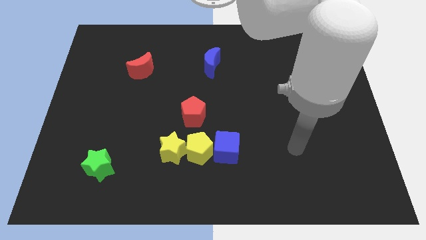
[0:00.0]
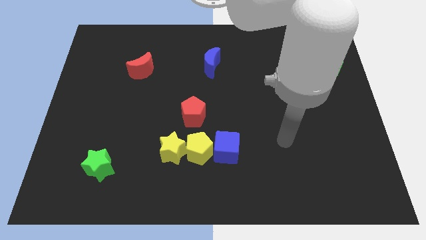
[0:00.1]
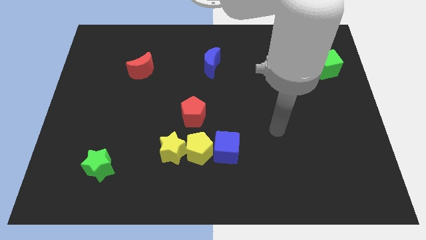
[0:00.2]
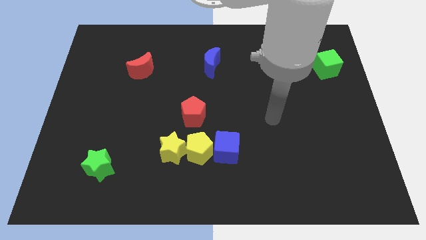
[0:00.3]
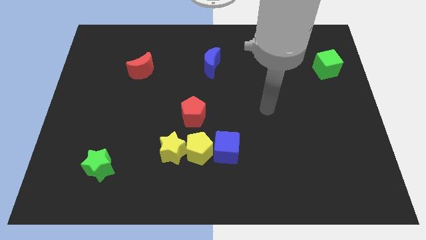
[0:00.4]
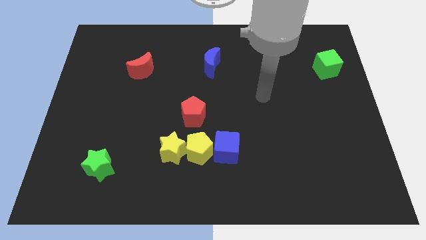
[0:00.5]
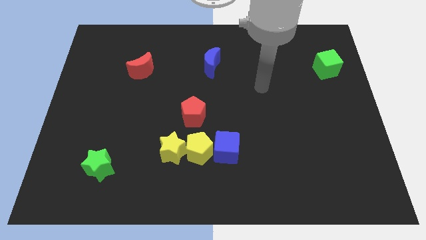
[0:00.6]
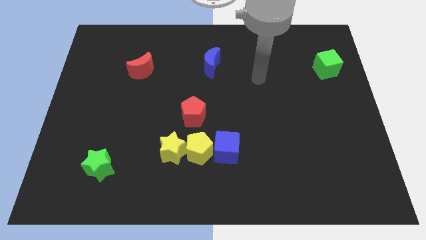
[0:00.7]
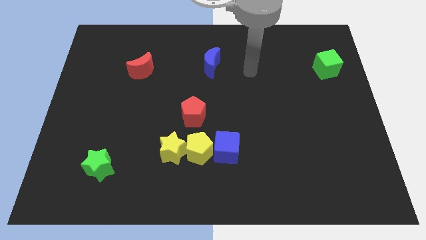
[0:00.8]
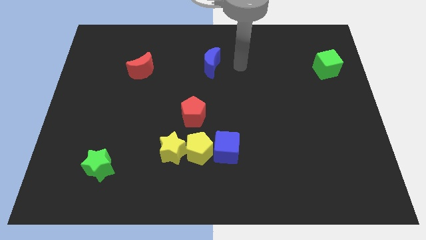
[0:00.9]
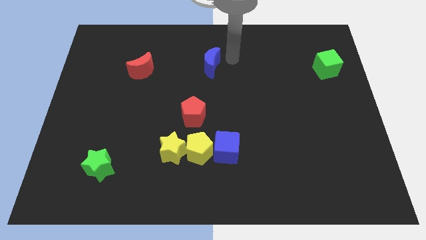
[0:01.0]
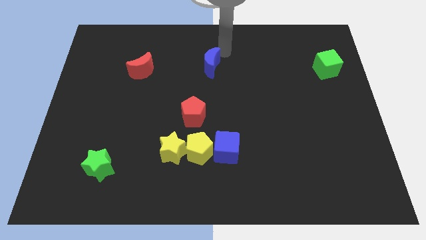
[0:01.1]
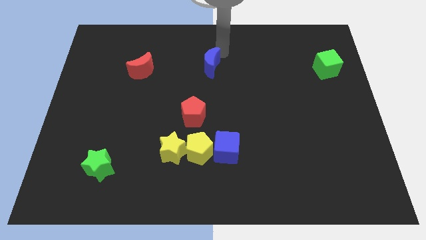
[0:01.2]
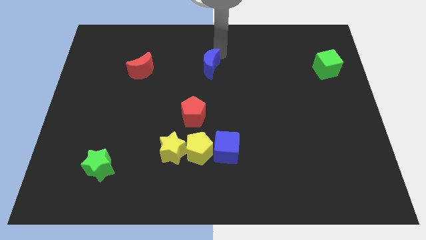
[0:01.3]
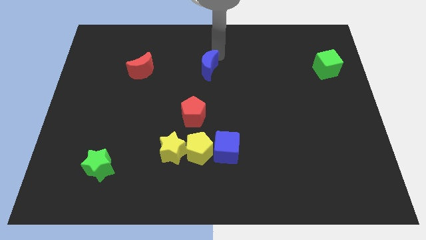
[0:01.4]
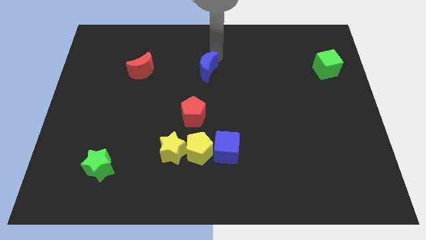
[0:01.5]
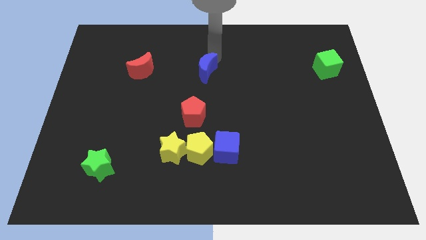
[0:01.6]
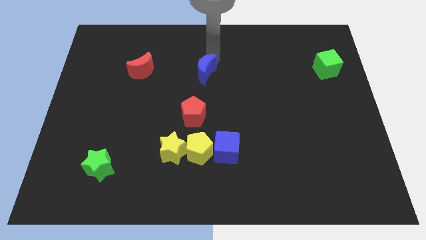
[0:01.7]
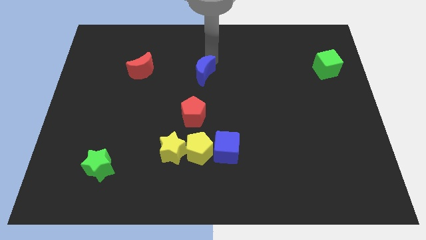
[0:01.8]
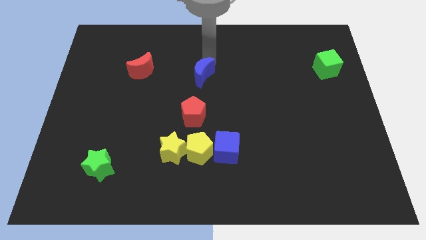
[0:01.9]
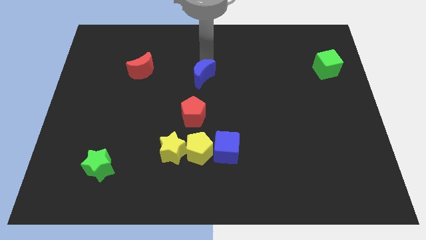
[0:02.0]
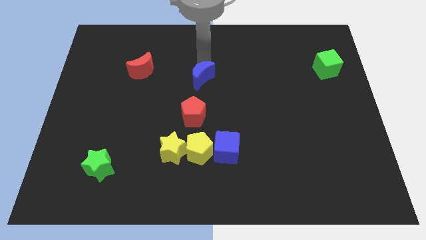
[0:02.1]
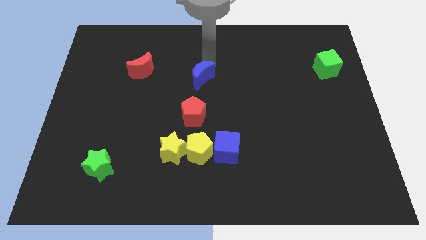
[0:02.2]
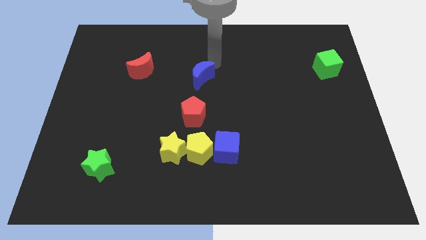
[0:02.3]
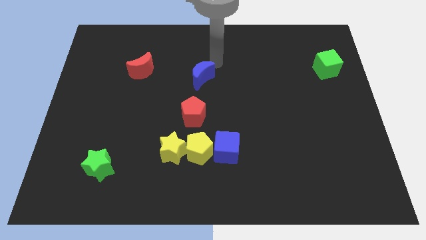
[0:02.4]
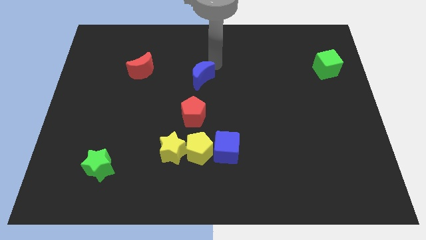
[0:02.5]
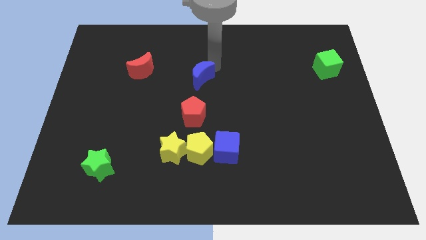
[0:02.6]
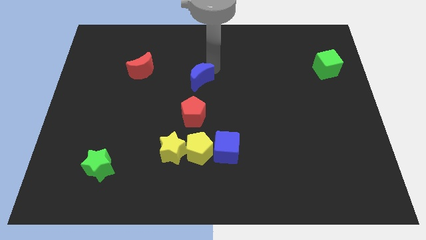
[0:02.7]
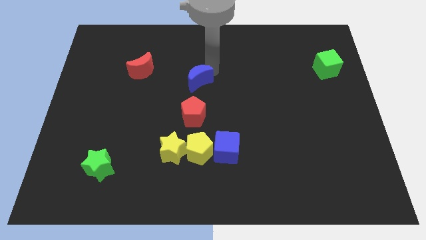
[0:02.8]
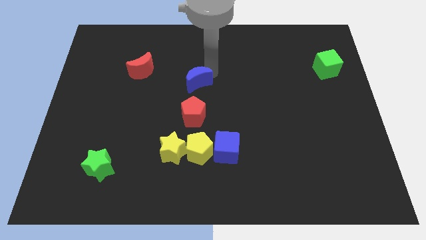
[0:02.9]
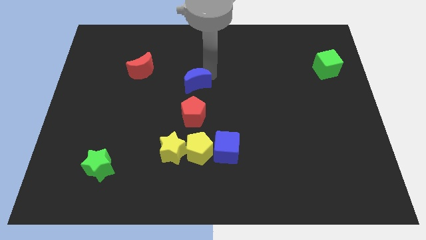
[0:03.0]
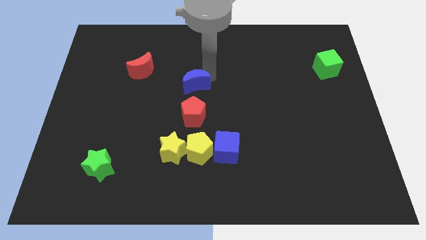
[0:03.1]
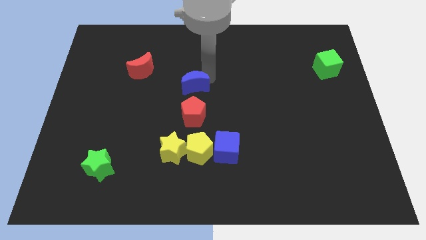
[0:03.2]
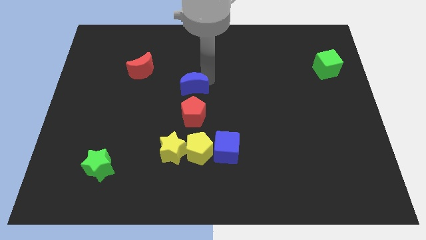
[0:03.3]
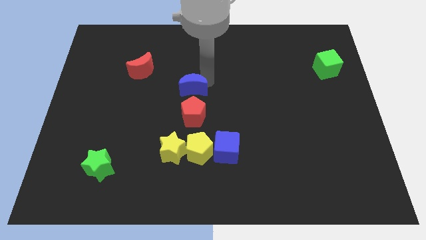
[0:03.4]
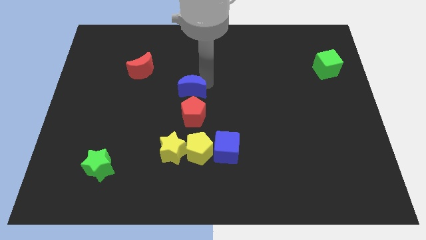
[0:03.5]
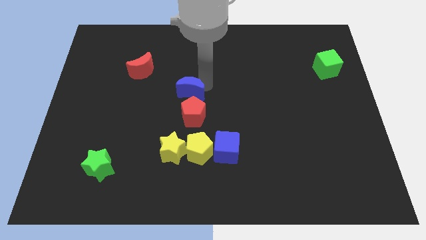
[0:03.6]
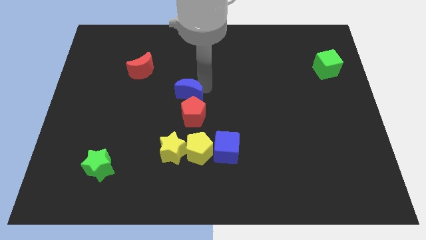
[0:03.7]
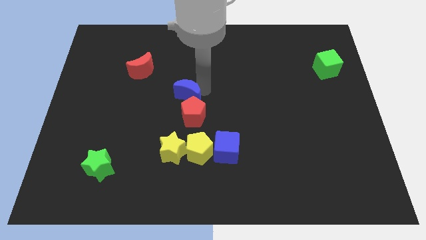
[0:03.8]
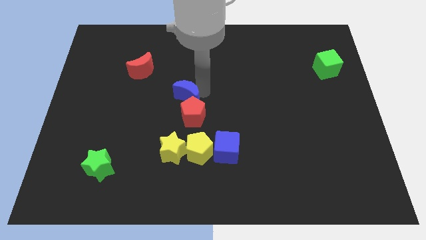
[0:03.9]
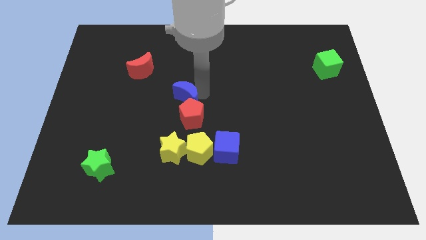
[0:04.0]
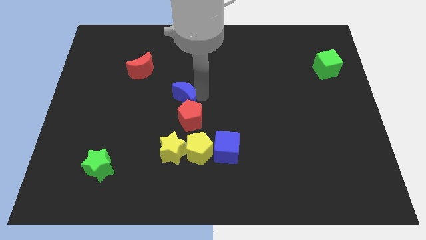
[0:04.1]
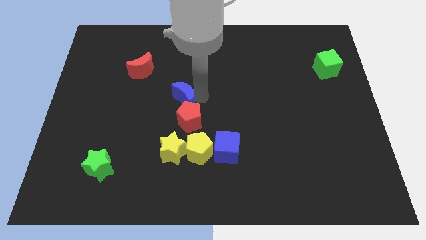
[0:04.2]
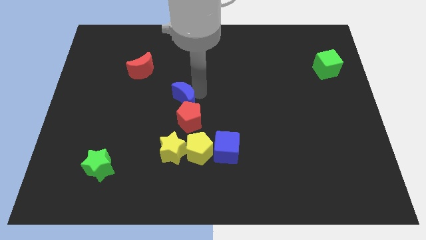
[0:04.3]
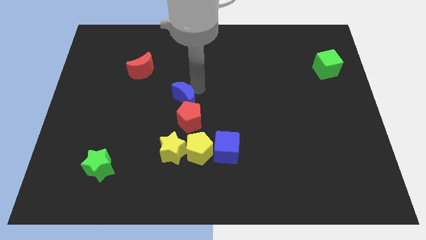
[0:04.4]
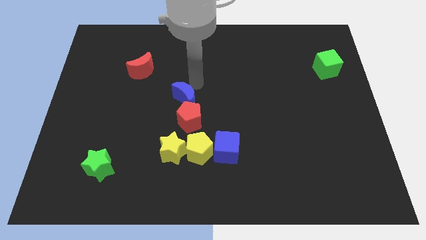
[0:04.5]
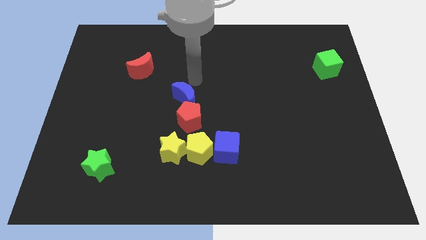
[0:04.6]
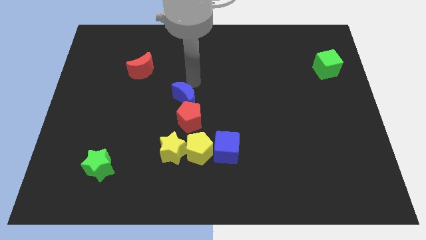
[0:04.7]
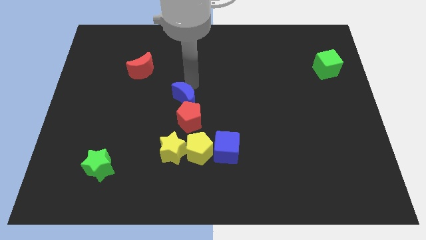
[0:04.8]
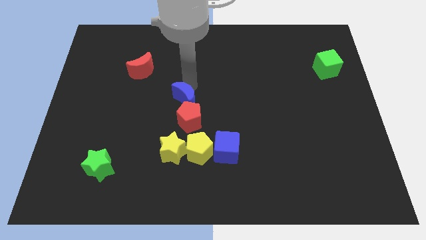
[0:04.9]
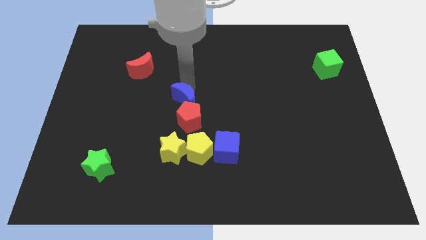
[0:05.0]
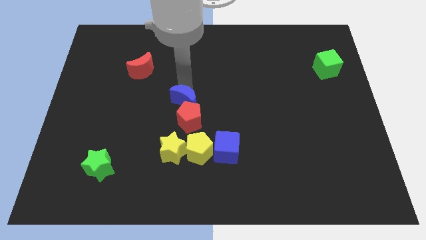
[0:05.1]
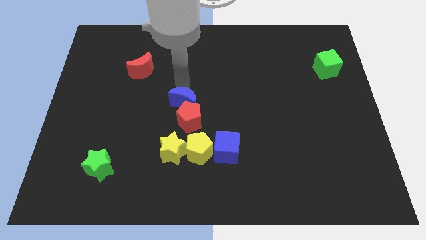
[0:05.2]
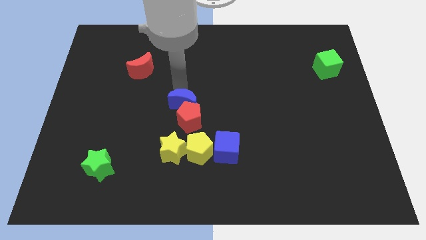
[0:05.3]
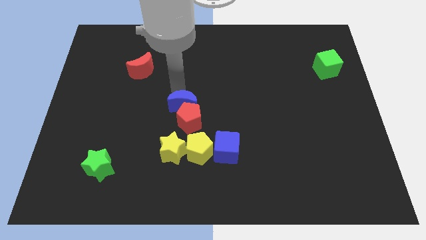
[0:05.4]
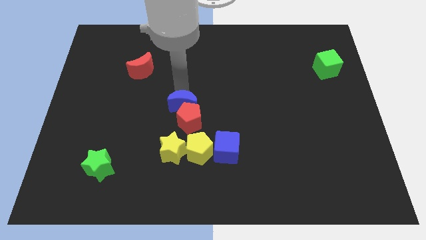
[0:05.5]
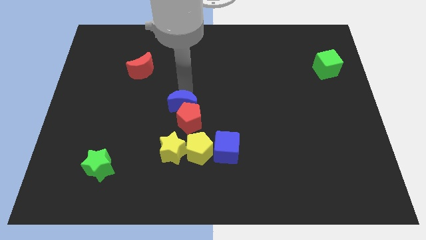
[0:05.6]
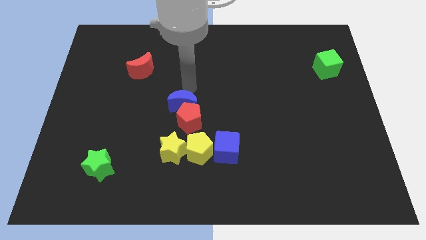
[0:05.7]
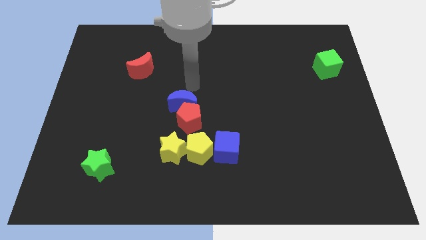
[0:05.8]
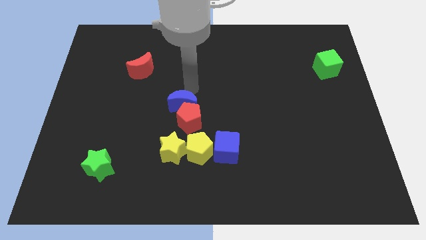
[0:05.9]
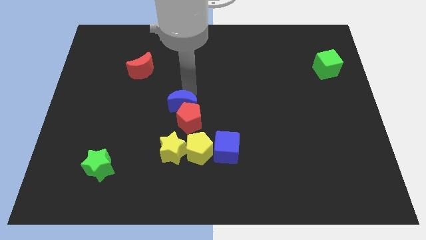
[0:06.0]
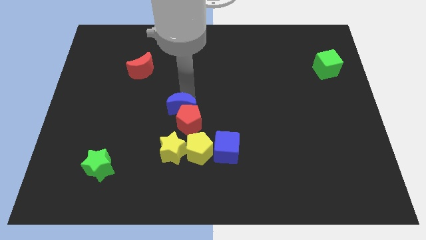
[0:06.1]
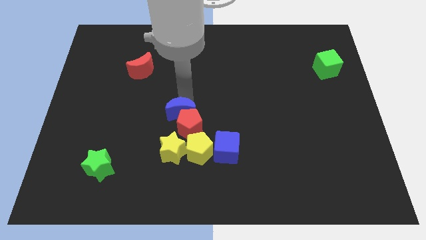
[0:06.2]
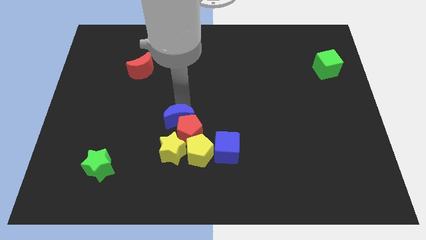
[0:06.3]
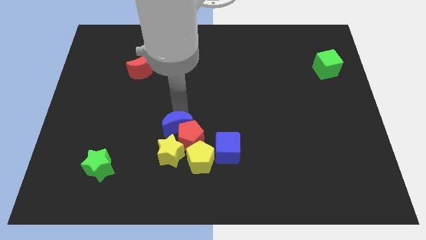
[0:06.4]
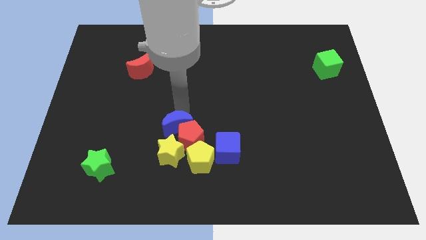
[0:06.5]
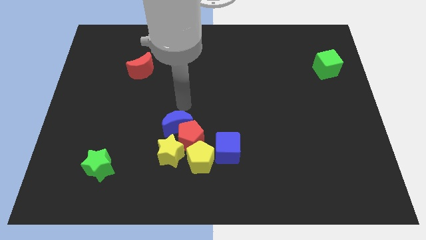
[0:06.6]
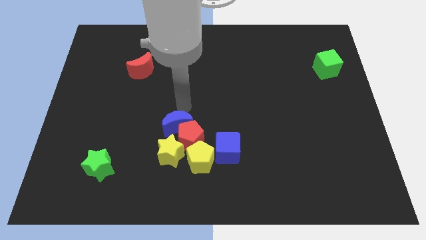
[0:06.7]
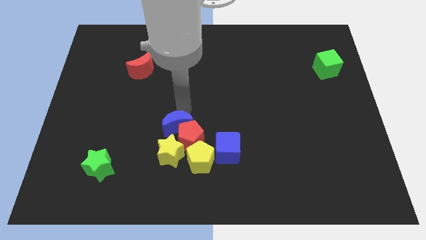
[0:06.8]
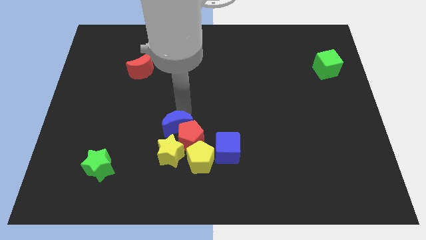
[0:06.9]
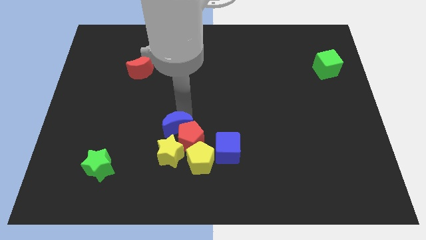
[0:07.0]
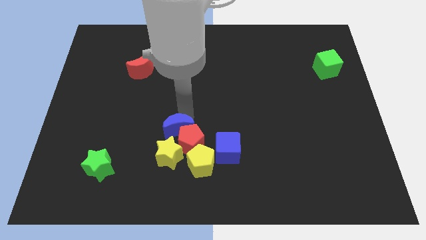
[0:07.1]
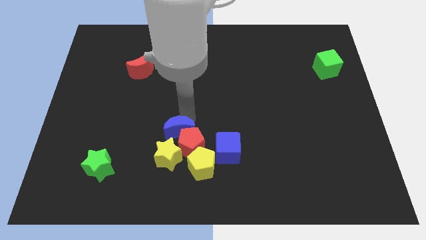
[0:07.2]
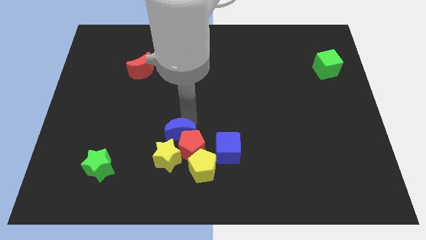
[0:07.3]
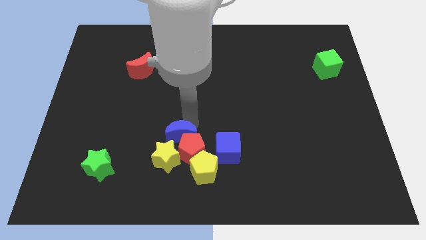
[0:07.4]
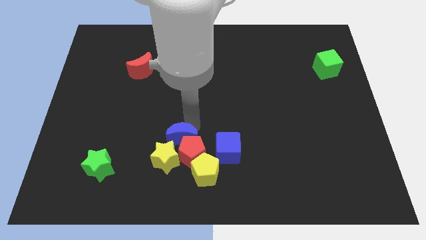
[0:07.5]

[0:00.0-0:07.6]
slide the blue moon to the yellow star
